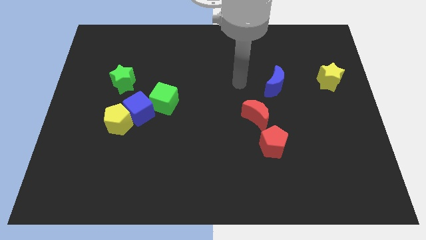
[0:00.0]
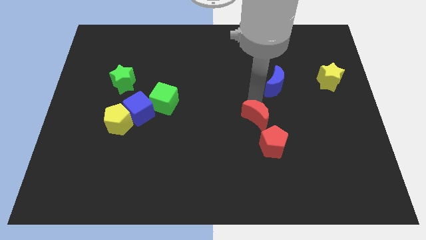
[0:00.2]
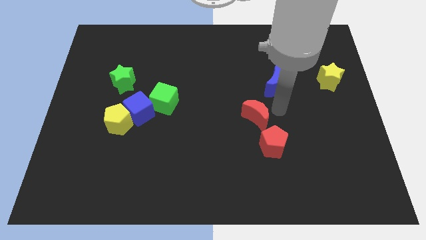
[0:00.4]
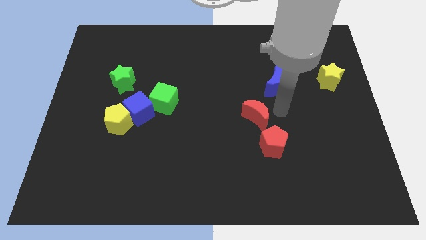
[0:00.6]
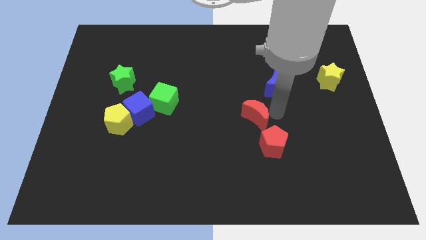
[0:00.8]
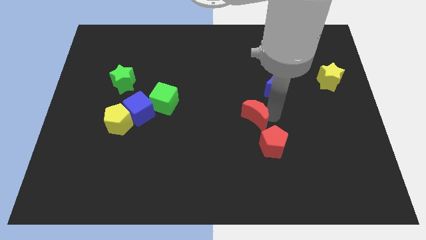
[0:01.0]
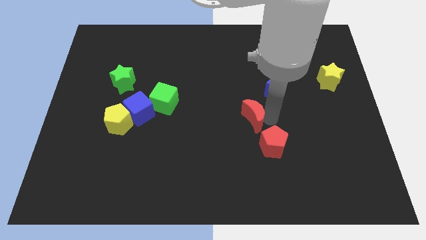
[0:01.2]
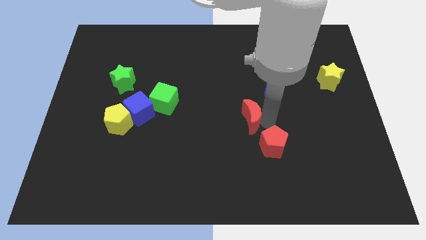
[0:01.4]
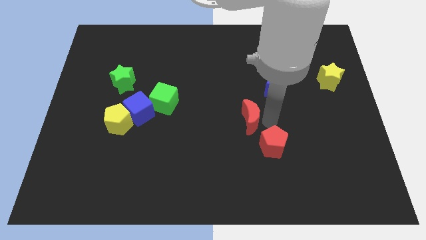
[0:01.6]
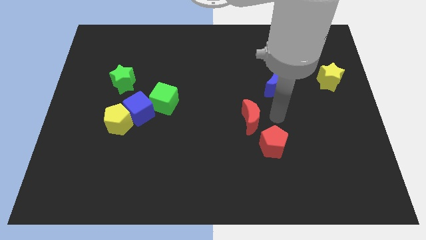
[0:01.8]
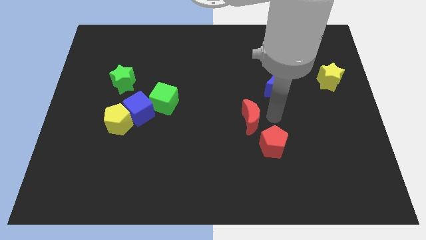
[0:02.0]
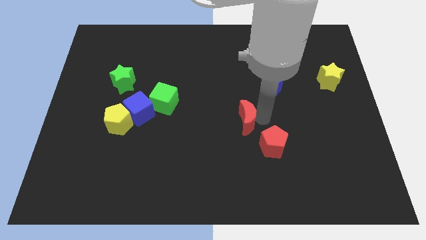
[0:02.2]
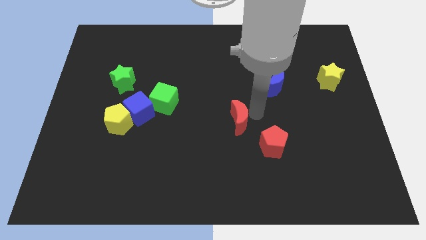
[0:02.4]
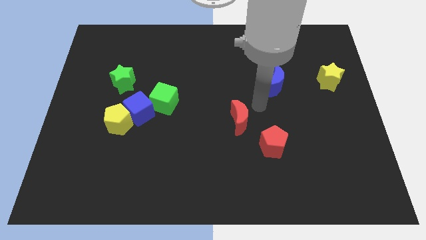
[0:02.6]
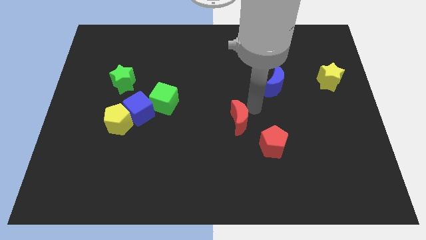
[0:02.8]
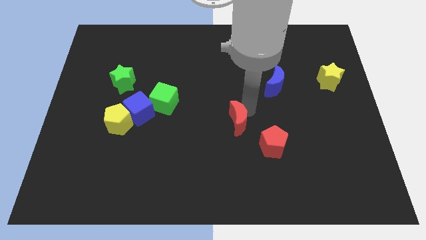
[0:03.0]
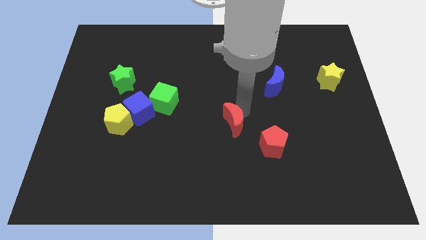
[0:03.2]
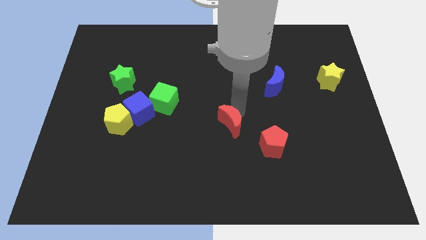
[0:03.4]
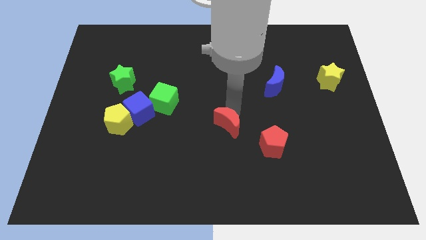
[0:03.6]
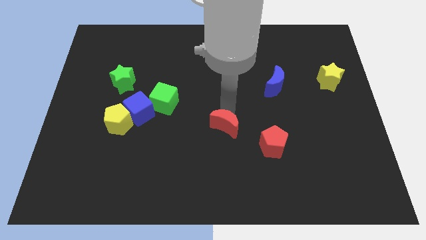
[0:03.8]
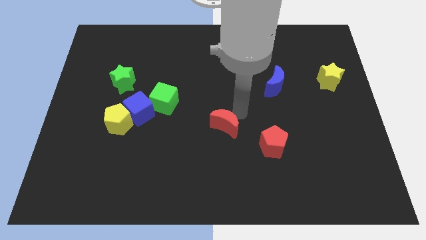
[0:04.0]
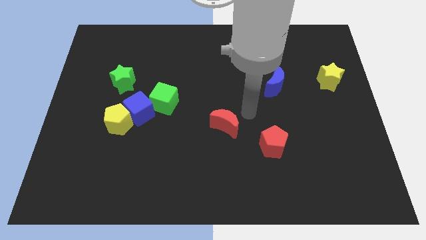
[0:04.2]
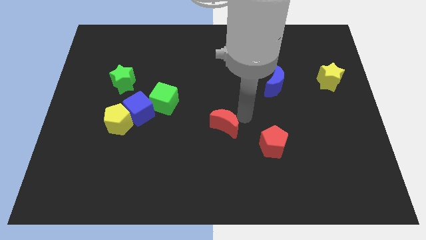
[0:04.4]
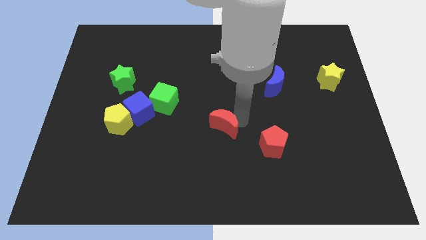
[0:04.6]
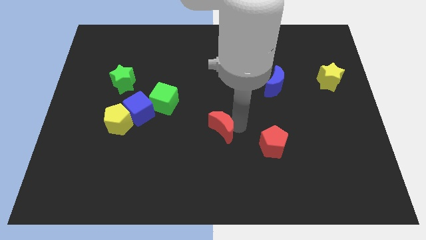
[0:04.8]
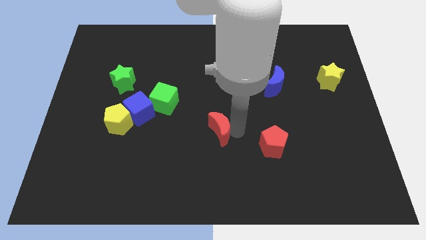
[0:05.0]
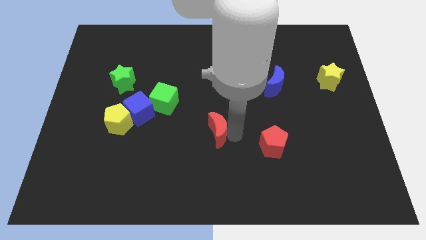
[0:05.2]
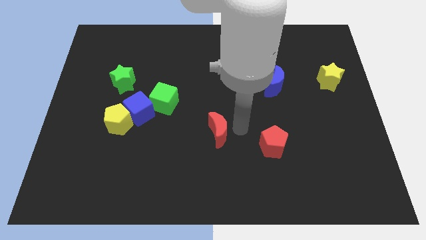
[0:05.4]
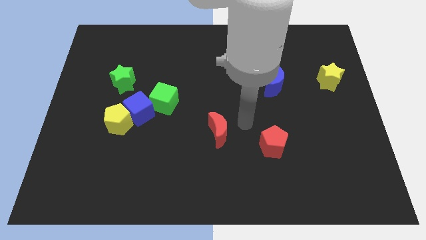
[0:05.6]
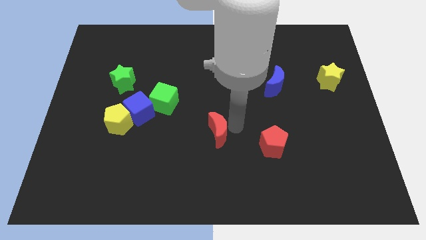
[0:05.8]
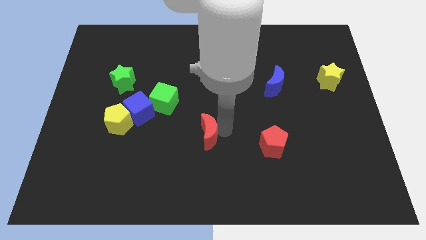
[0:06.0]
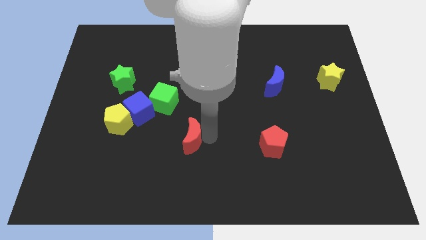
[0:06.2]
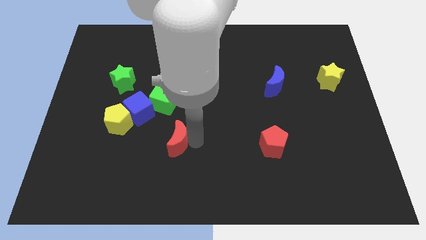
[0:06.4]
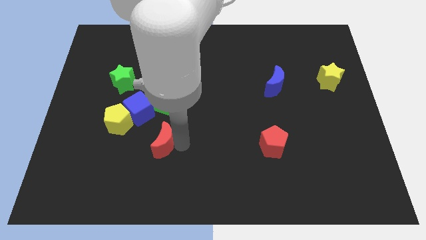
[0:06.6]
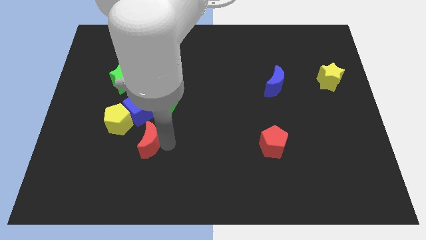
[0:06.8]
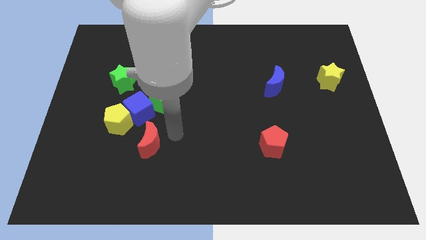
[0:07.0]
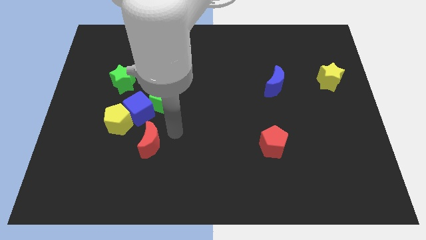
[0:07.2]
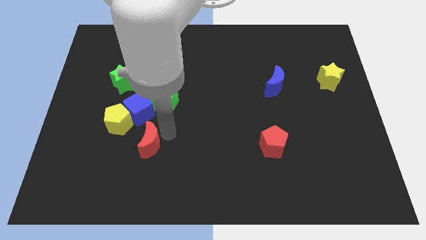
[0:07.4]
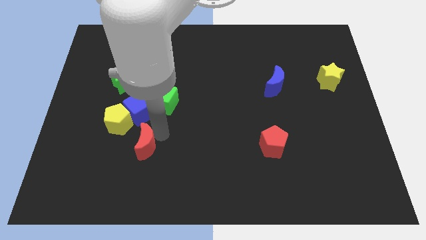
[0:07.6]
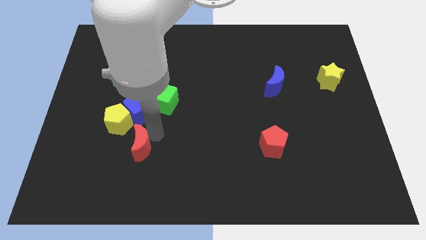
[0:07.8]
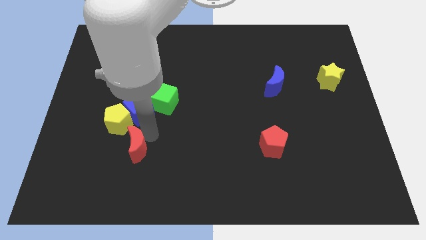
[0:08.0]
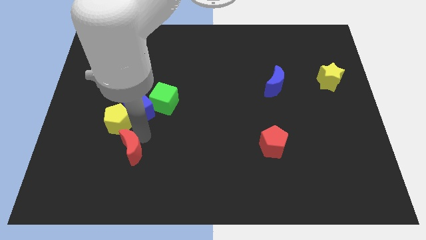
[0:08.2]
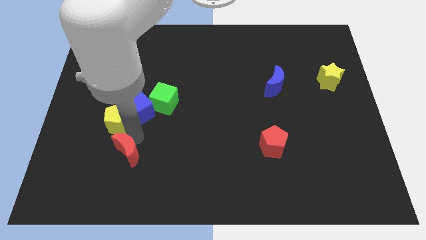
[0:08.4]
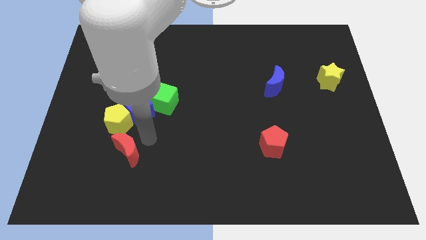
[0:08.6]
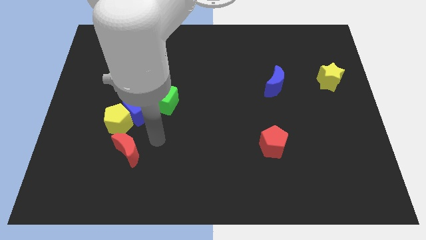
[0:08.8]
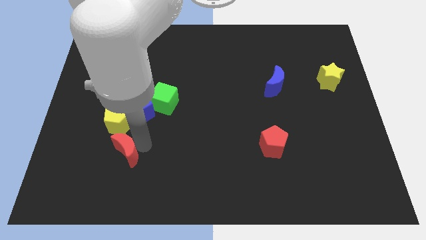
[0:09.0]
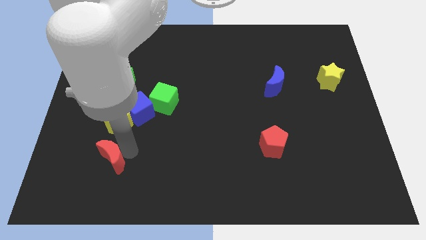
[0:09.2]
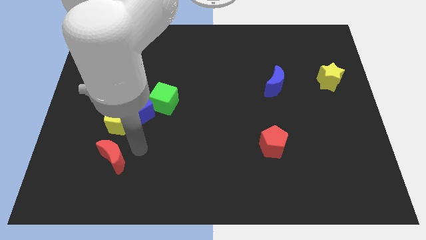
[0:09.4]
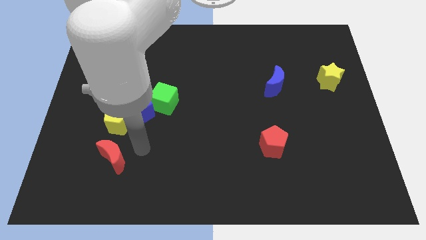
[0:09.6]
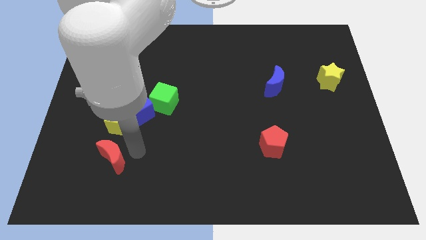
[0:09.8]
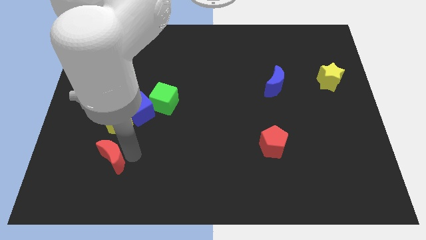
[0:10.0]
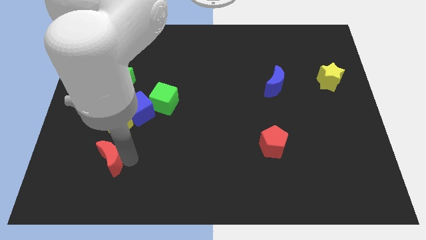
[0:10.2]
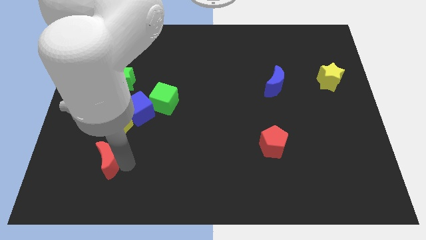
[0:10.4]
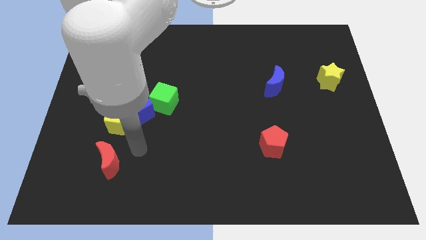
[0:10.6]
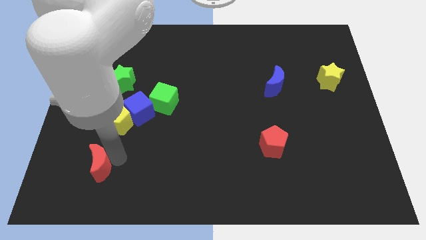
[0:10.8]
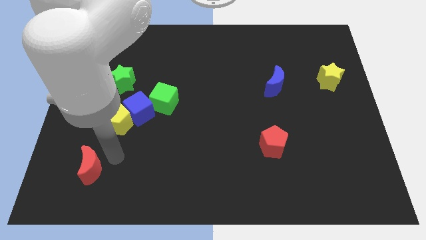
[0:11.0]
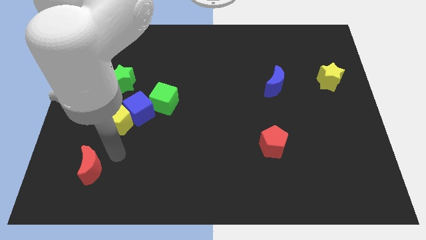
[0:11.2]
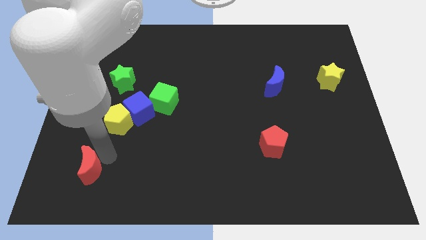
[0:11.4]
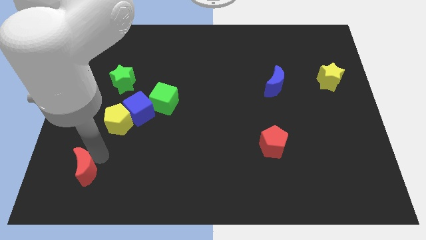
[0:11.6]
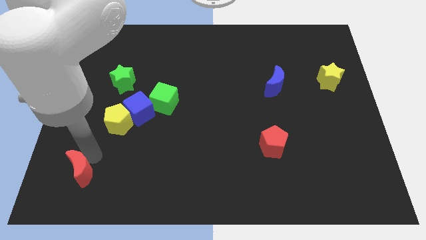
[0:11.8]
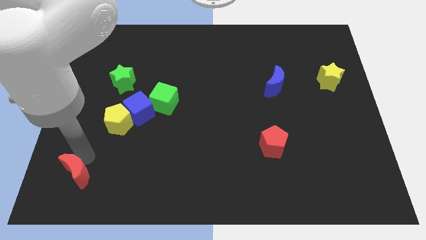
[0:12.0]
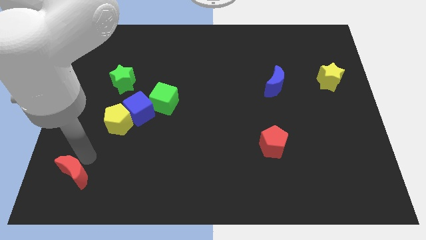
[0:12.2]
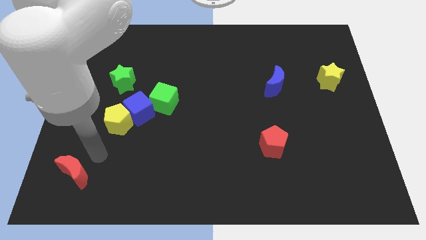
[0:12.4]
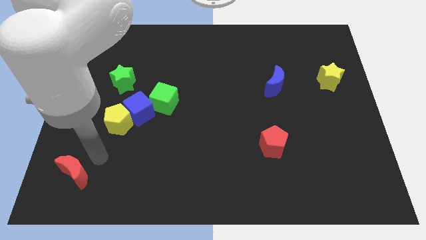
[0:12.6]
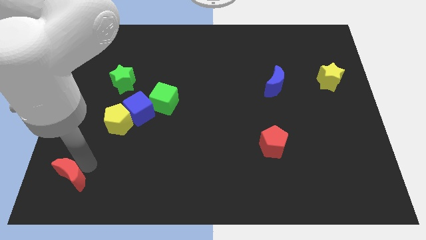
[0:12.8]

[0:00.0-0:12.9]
move the red moon to the bottom left corner

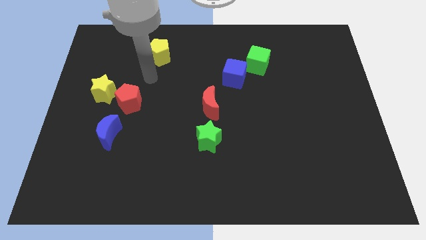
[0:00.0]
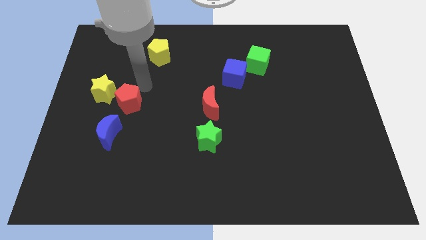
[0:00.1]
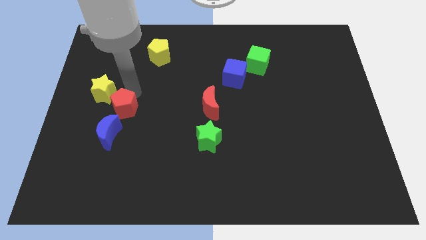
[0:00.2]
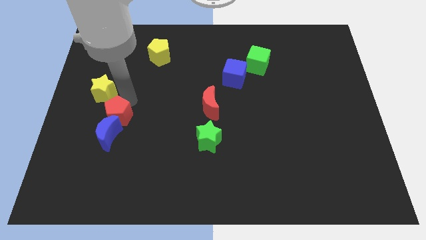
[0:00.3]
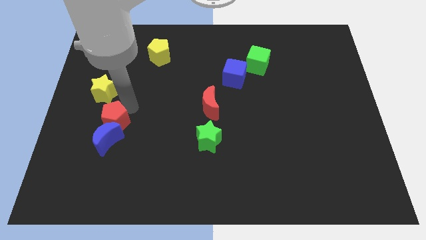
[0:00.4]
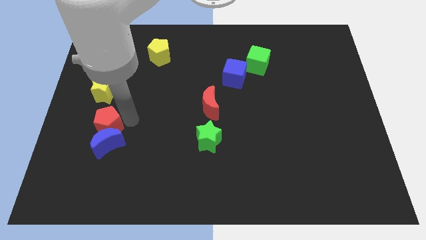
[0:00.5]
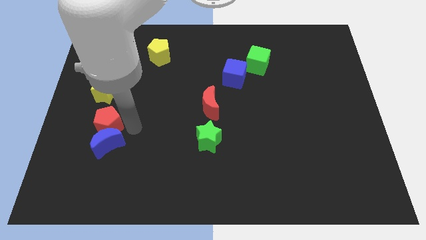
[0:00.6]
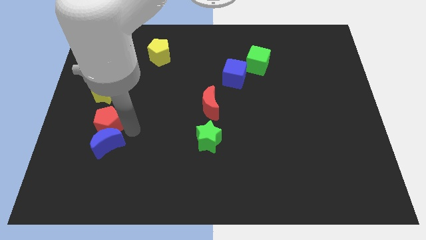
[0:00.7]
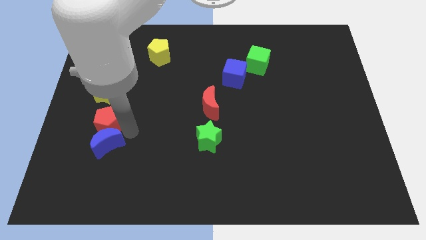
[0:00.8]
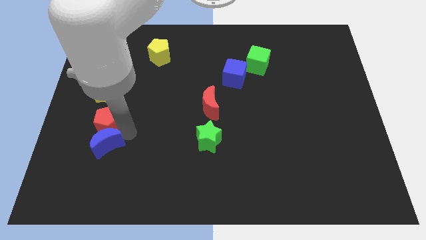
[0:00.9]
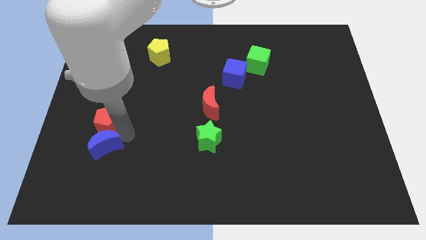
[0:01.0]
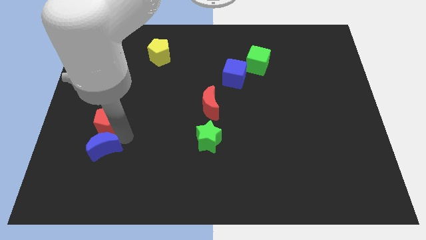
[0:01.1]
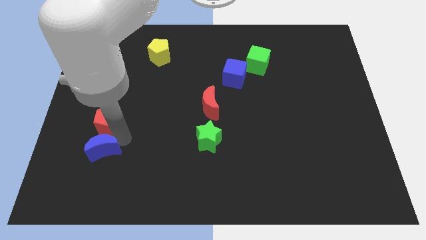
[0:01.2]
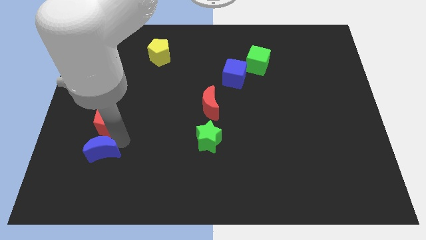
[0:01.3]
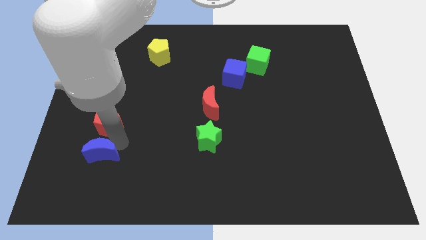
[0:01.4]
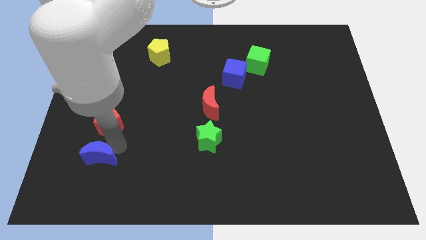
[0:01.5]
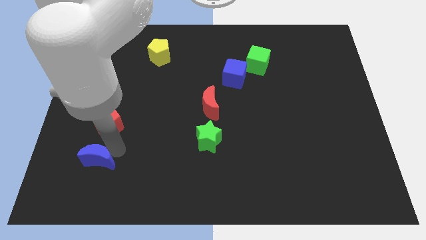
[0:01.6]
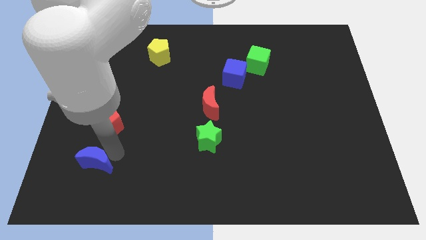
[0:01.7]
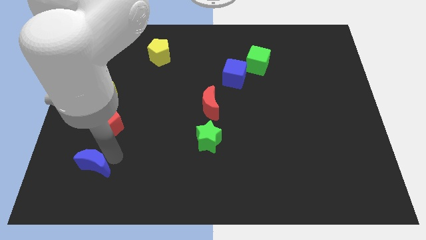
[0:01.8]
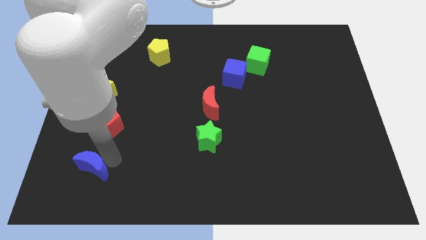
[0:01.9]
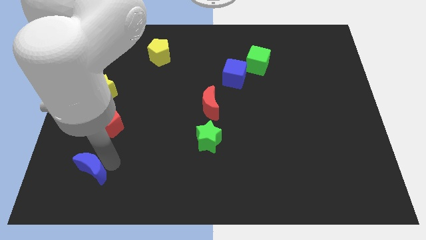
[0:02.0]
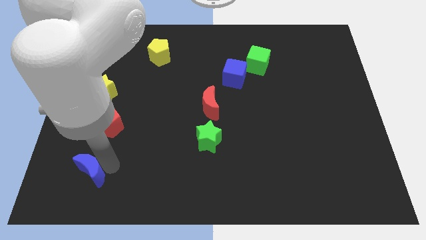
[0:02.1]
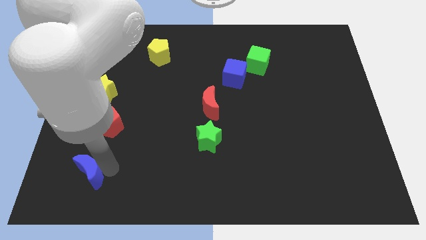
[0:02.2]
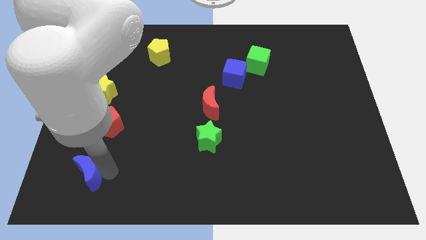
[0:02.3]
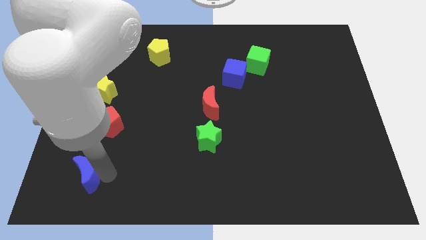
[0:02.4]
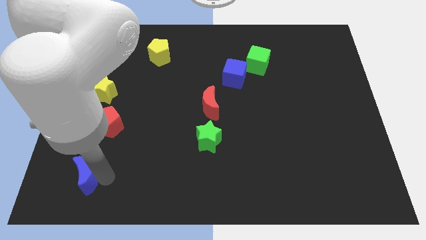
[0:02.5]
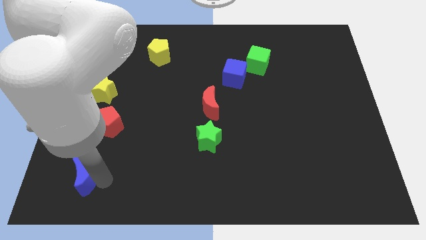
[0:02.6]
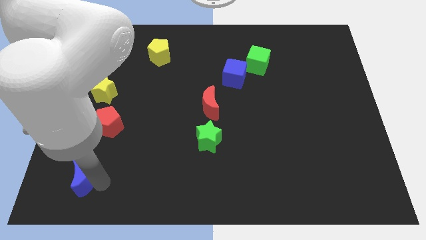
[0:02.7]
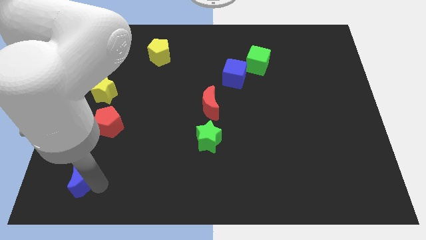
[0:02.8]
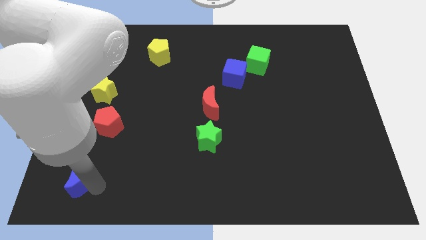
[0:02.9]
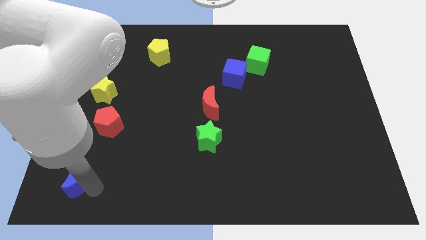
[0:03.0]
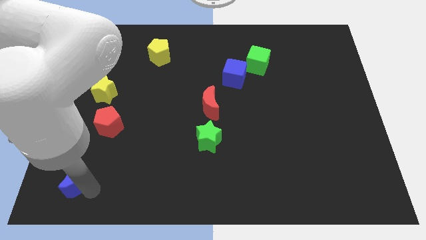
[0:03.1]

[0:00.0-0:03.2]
slide the blue moon to the bottom left
